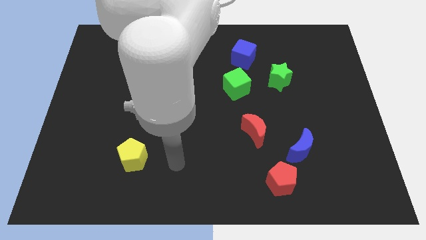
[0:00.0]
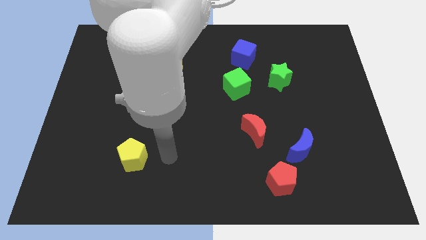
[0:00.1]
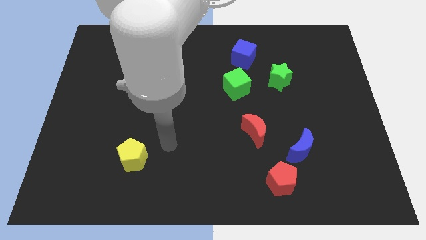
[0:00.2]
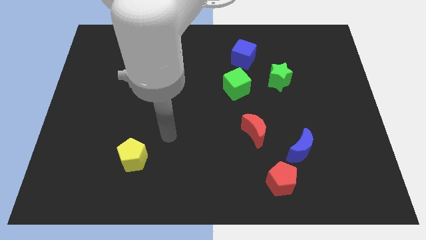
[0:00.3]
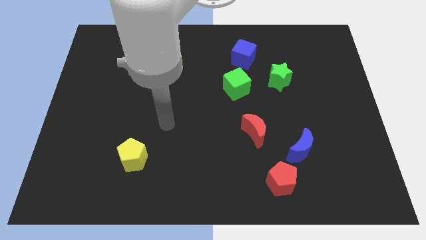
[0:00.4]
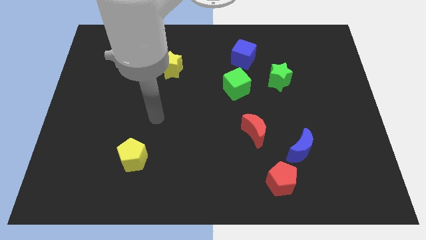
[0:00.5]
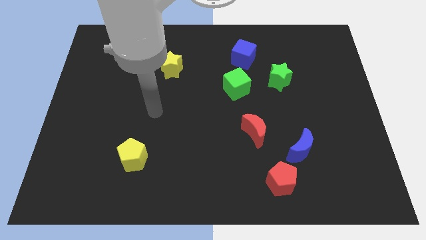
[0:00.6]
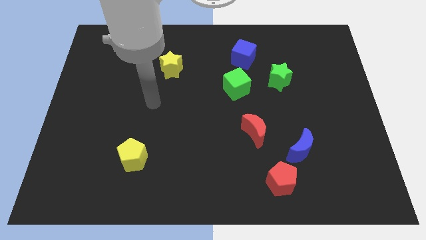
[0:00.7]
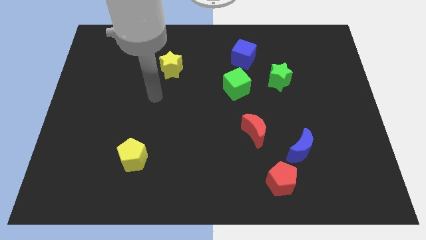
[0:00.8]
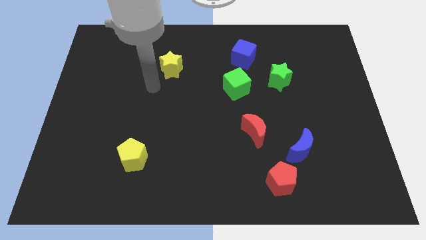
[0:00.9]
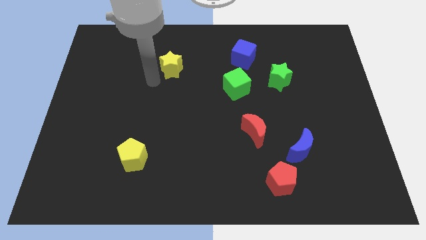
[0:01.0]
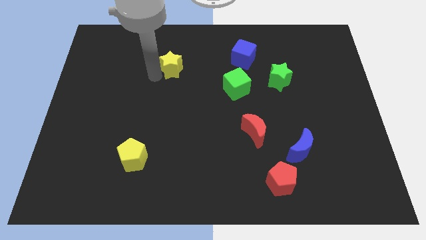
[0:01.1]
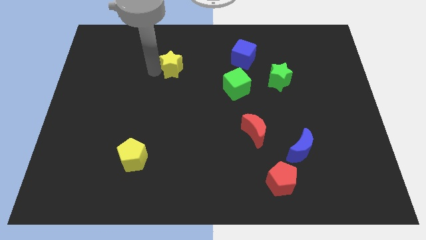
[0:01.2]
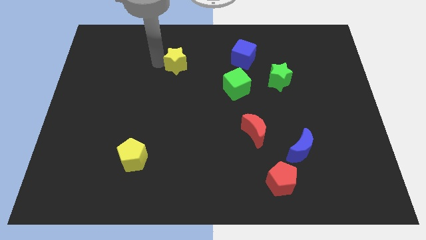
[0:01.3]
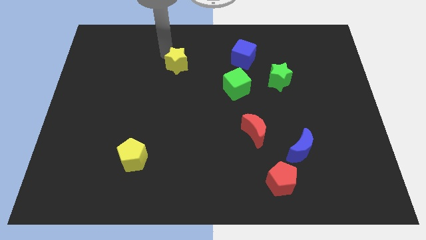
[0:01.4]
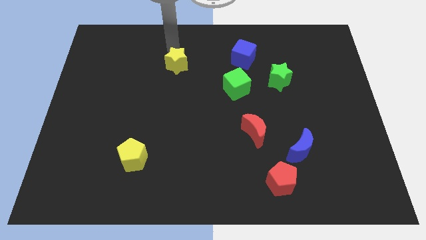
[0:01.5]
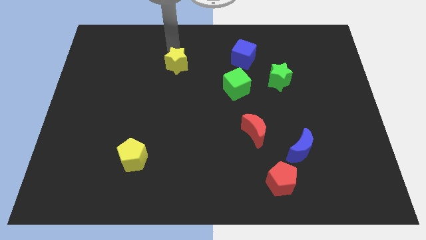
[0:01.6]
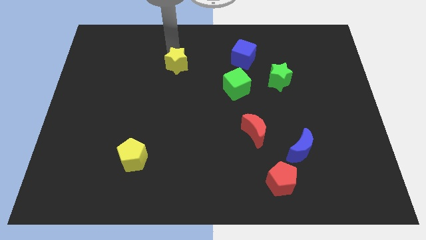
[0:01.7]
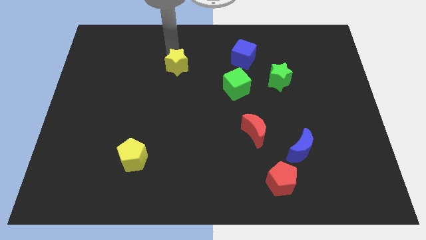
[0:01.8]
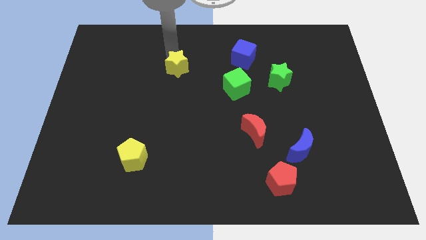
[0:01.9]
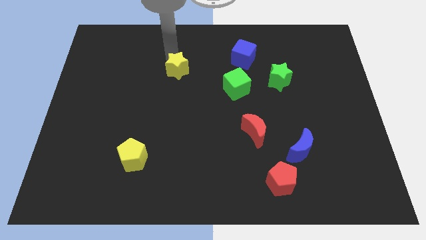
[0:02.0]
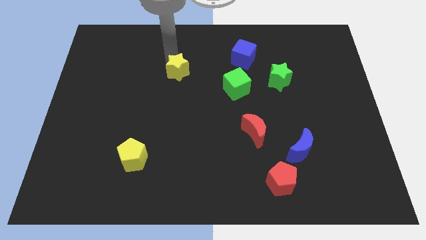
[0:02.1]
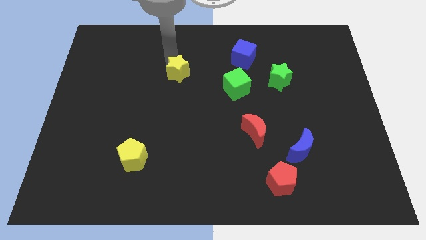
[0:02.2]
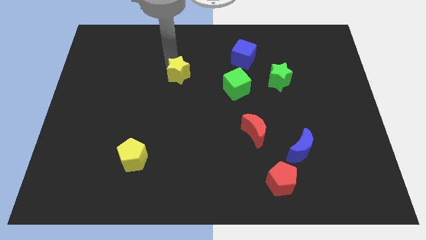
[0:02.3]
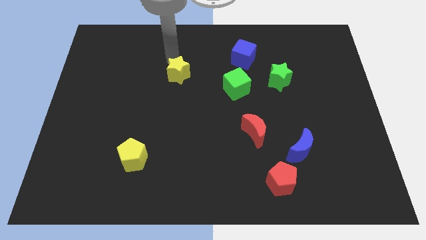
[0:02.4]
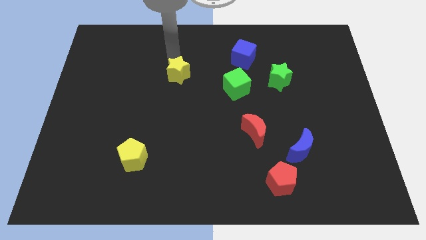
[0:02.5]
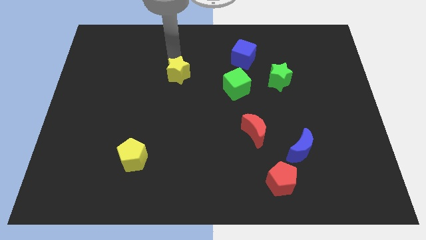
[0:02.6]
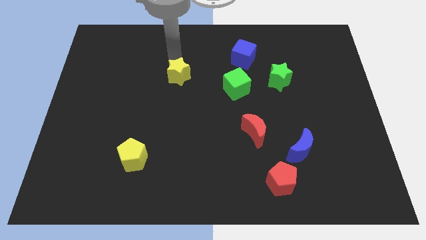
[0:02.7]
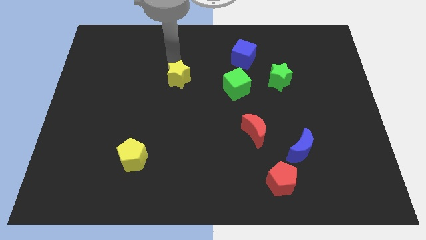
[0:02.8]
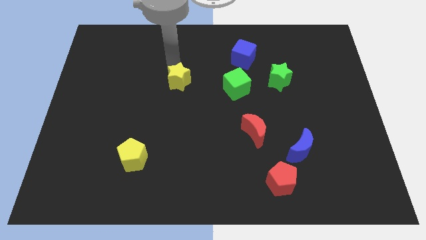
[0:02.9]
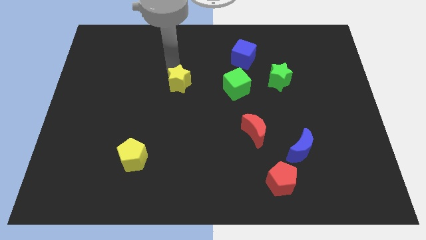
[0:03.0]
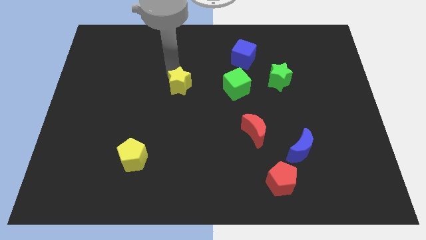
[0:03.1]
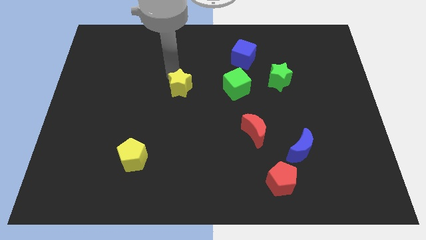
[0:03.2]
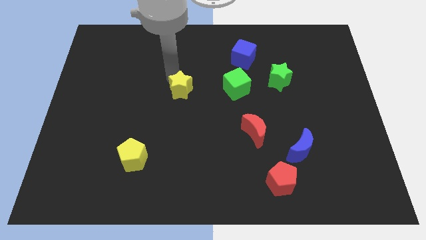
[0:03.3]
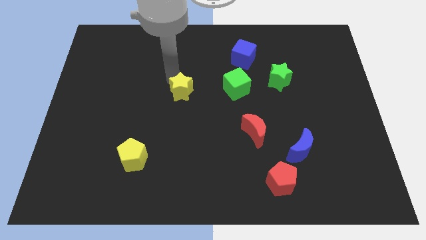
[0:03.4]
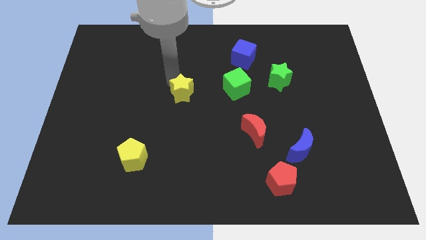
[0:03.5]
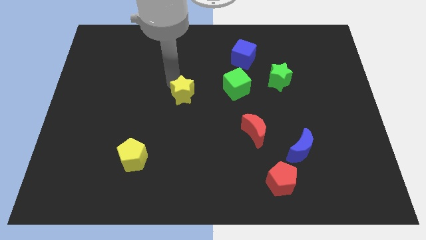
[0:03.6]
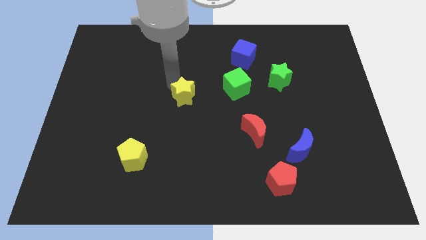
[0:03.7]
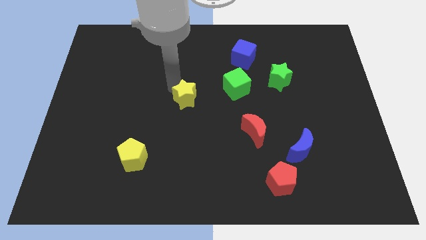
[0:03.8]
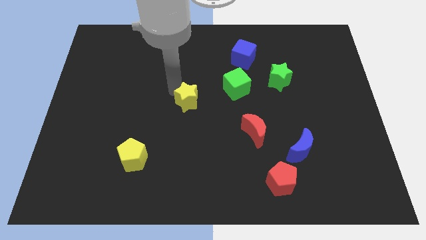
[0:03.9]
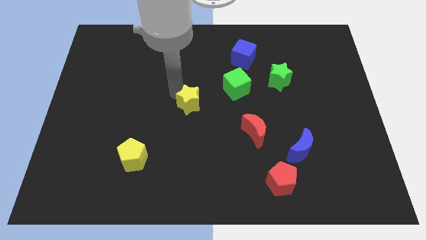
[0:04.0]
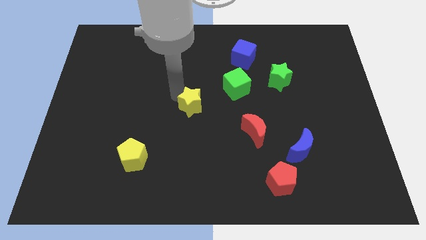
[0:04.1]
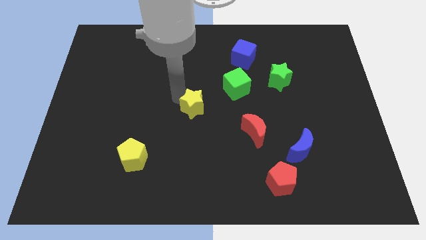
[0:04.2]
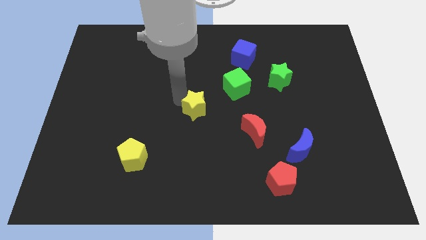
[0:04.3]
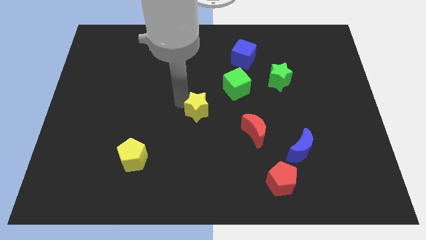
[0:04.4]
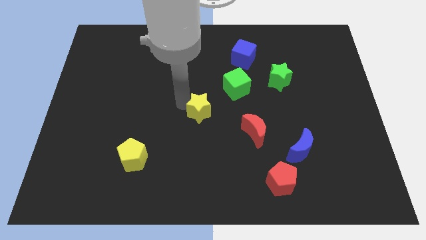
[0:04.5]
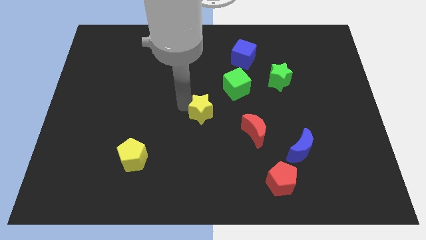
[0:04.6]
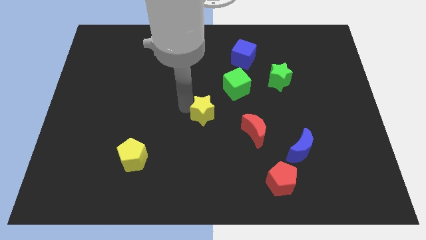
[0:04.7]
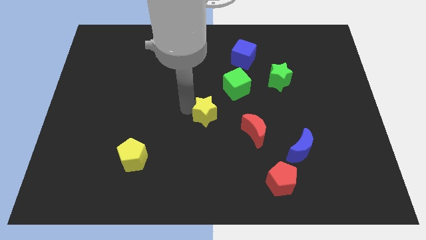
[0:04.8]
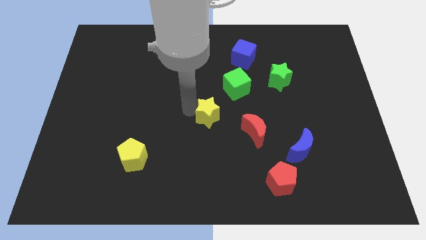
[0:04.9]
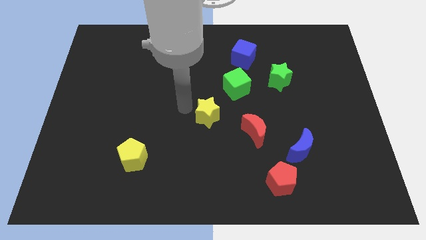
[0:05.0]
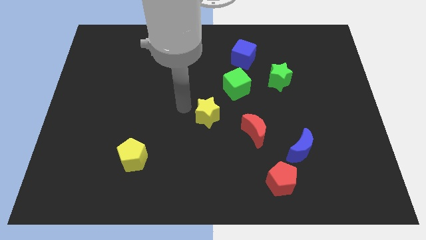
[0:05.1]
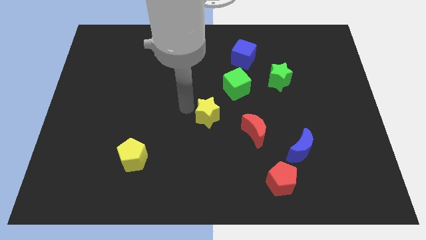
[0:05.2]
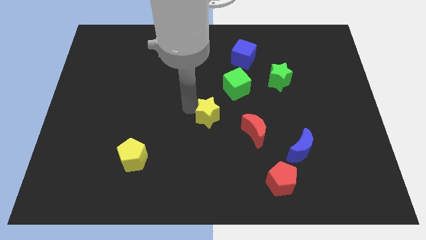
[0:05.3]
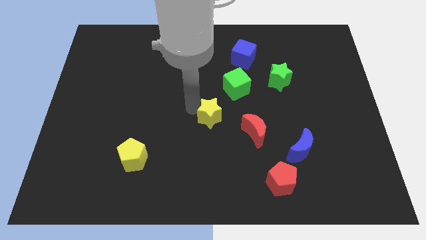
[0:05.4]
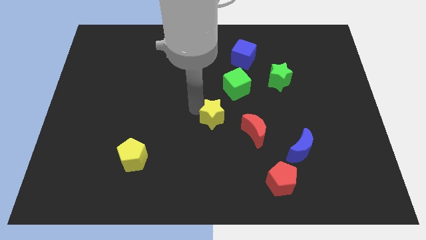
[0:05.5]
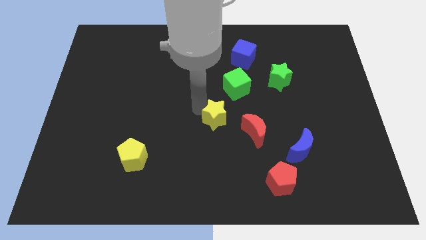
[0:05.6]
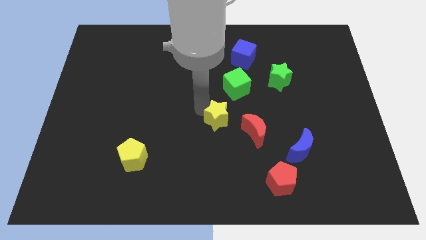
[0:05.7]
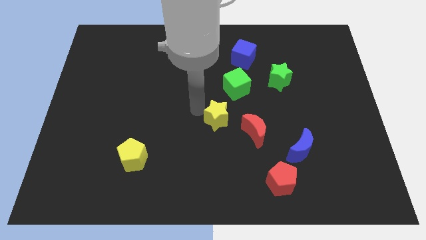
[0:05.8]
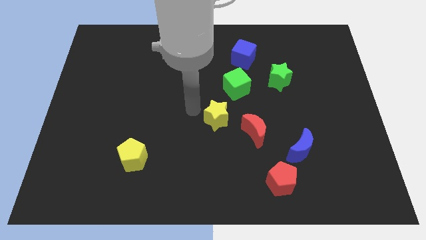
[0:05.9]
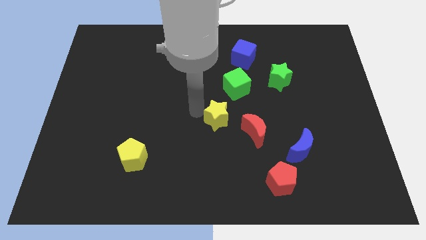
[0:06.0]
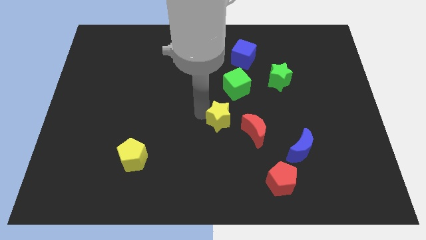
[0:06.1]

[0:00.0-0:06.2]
slide the yellow star down and right diagonally

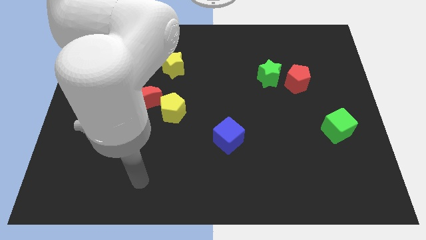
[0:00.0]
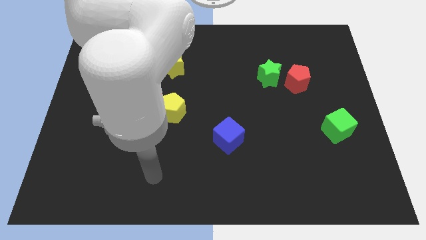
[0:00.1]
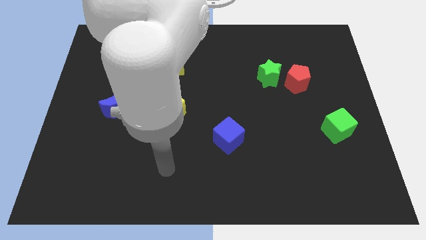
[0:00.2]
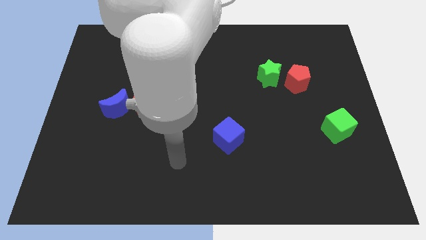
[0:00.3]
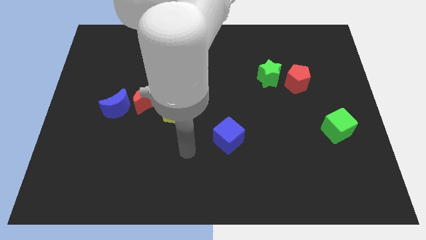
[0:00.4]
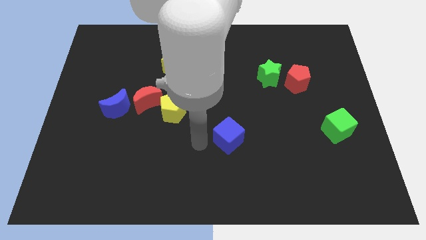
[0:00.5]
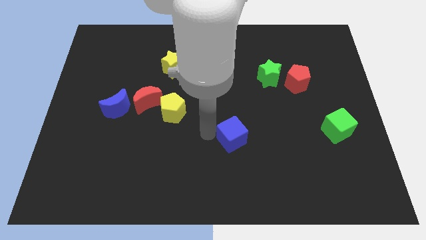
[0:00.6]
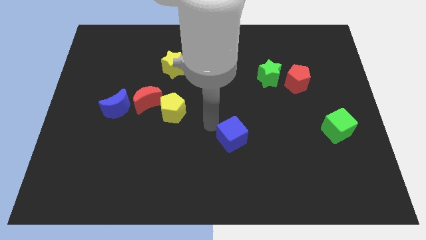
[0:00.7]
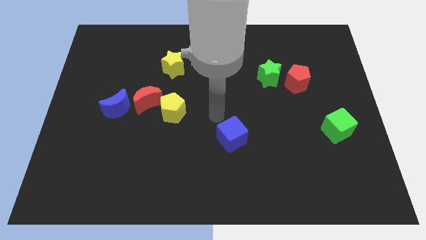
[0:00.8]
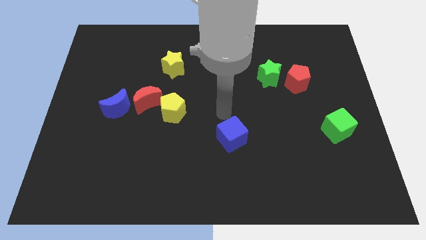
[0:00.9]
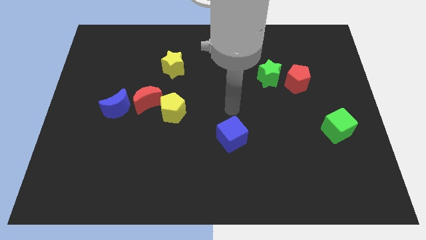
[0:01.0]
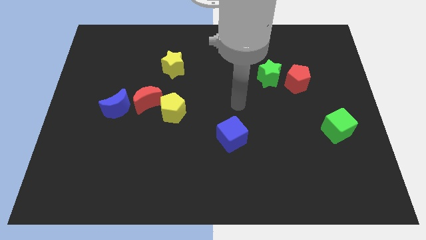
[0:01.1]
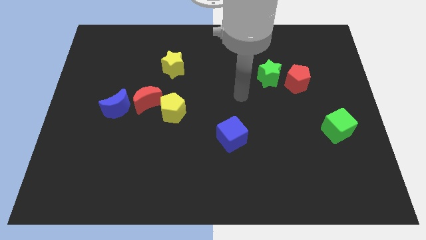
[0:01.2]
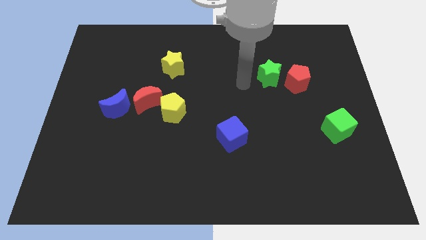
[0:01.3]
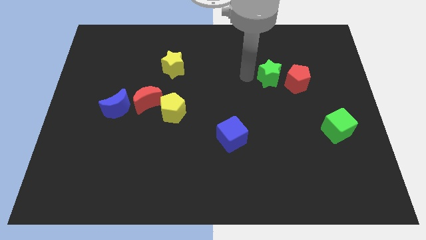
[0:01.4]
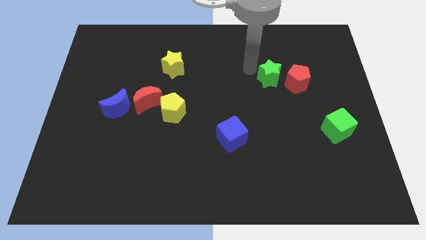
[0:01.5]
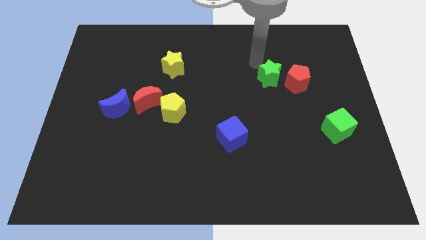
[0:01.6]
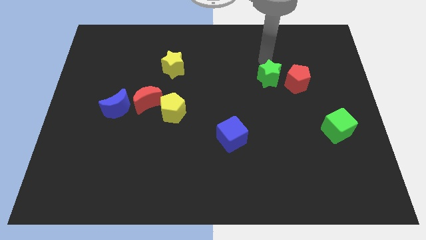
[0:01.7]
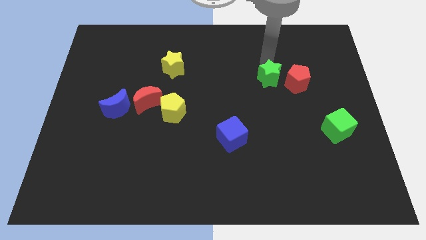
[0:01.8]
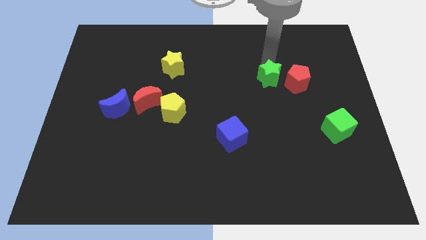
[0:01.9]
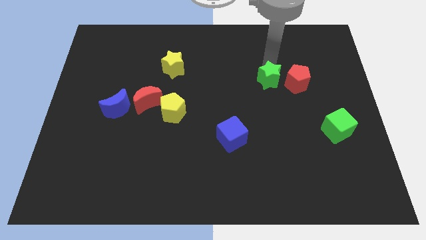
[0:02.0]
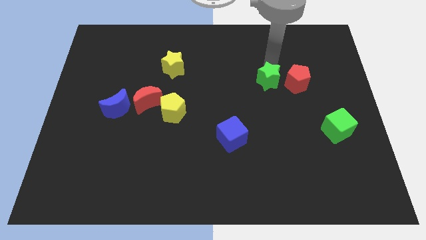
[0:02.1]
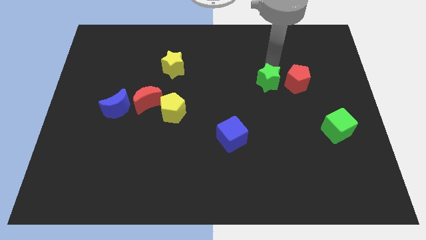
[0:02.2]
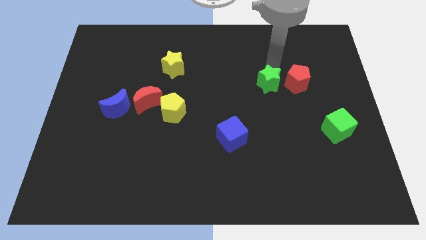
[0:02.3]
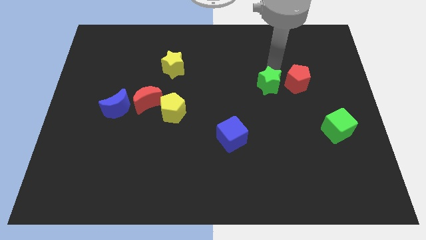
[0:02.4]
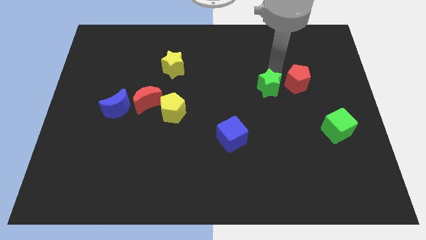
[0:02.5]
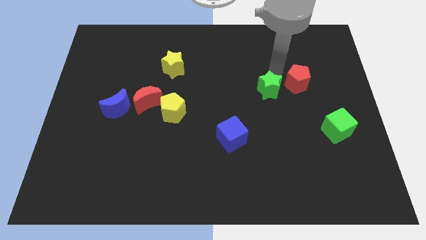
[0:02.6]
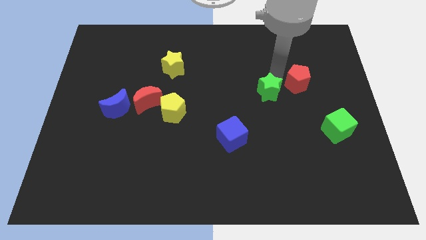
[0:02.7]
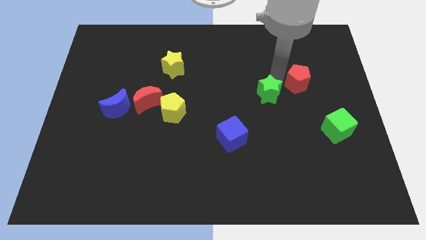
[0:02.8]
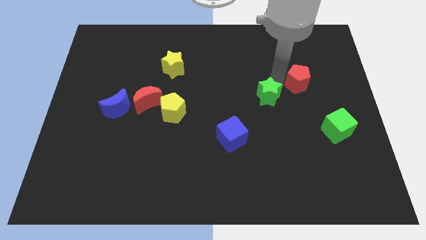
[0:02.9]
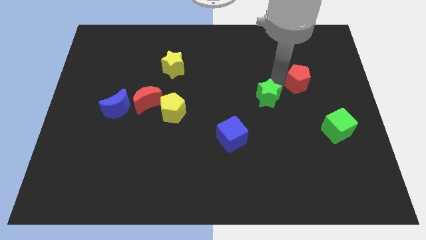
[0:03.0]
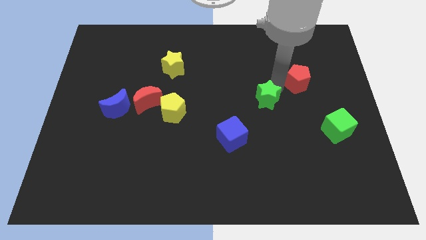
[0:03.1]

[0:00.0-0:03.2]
slightly move the green star down
